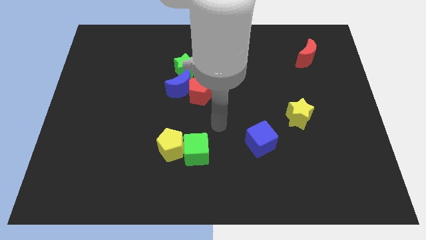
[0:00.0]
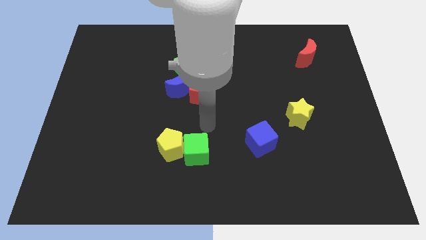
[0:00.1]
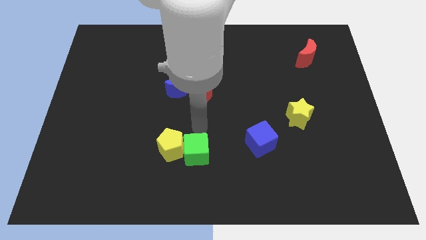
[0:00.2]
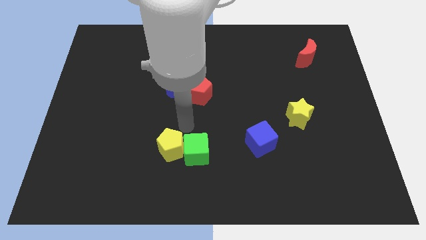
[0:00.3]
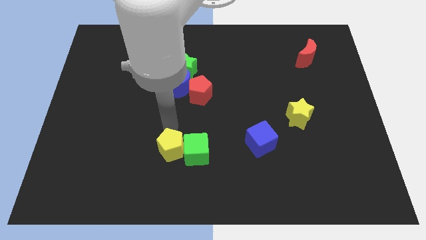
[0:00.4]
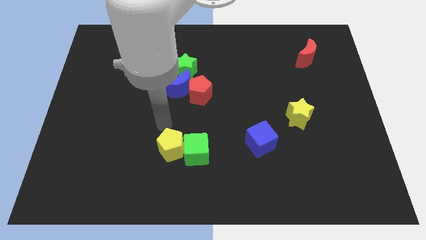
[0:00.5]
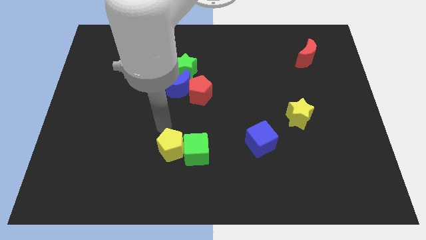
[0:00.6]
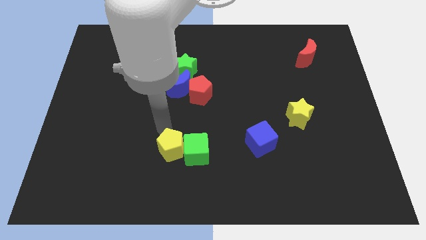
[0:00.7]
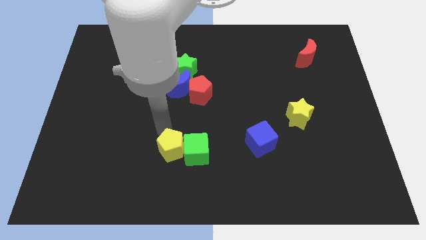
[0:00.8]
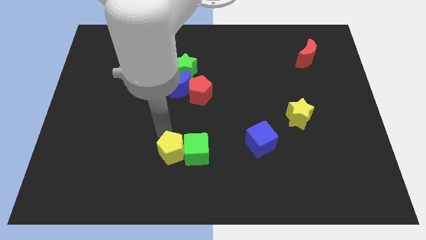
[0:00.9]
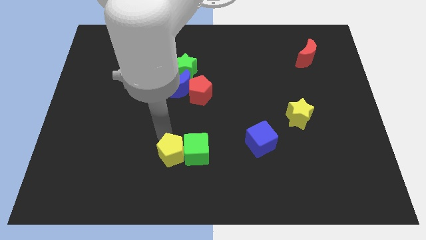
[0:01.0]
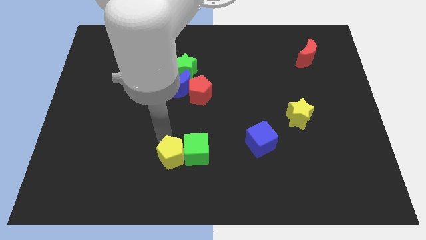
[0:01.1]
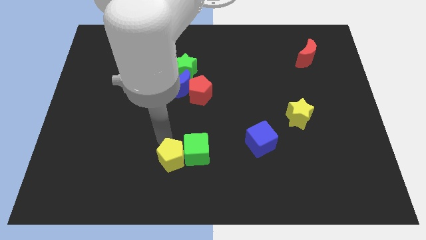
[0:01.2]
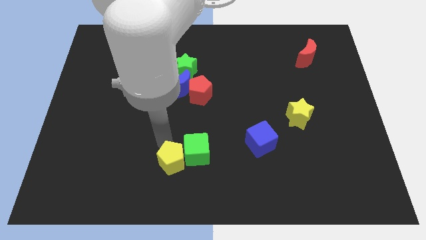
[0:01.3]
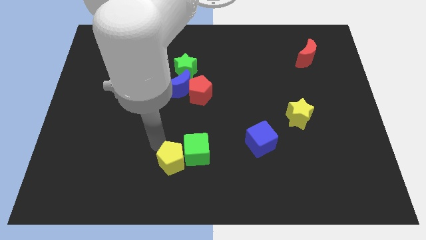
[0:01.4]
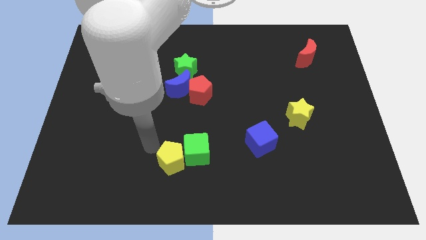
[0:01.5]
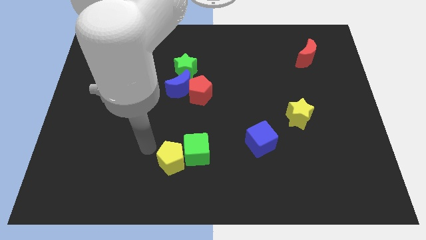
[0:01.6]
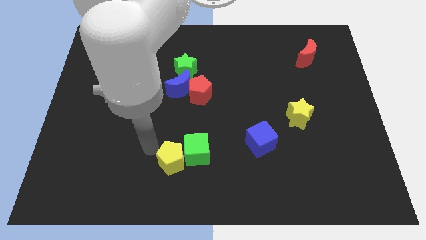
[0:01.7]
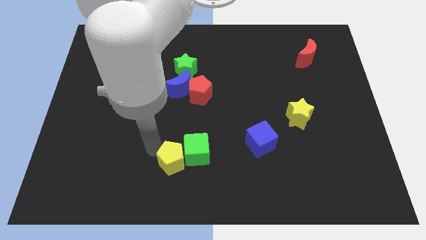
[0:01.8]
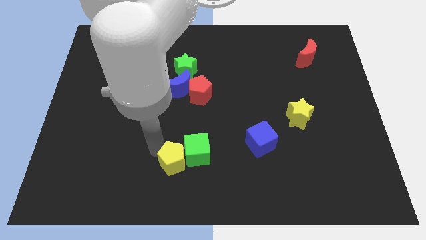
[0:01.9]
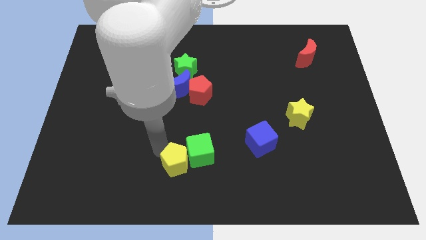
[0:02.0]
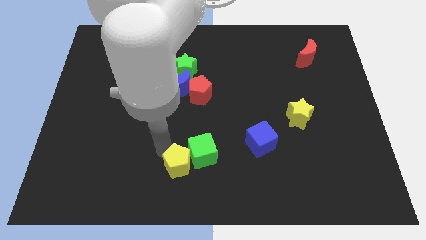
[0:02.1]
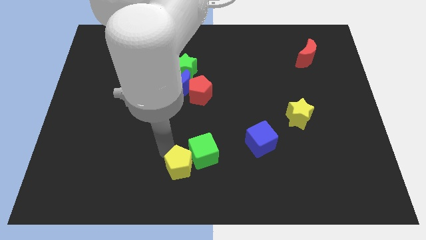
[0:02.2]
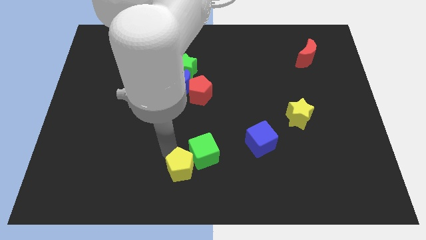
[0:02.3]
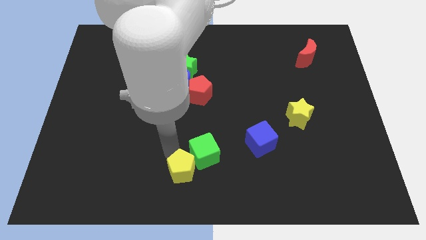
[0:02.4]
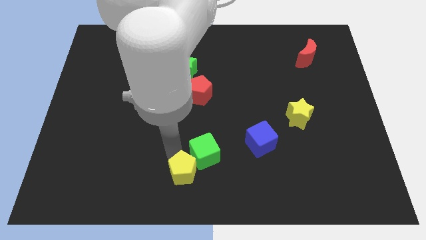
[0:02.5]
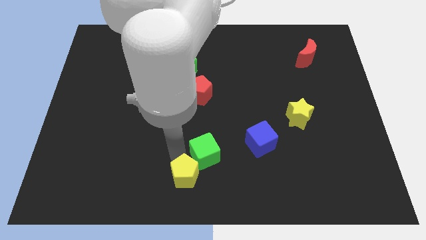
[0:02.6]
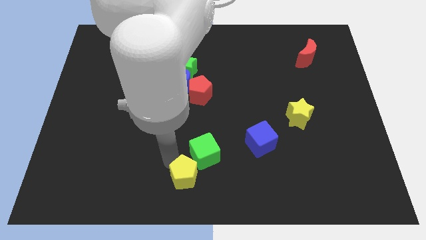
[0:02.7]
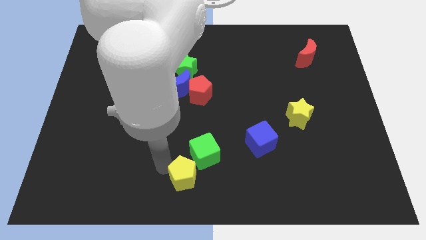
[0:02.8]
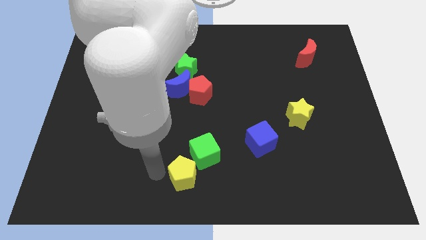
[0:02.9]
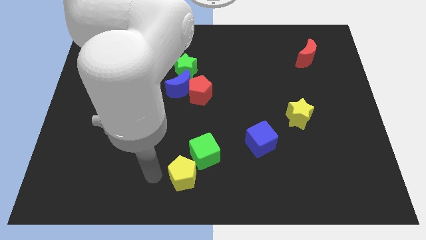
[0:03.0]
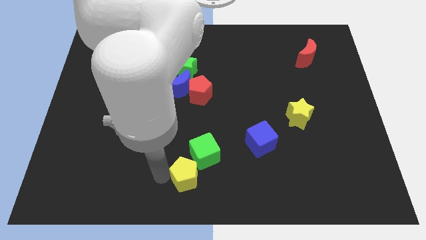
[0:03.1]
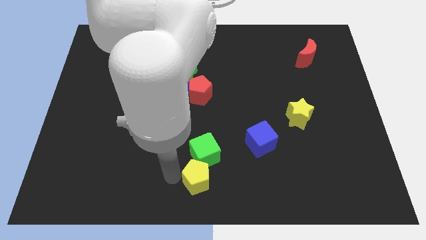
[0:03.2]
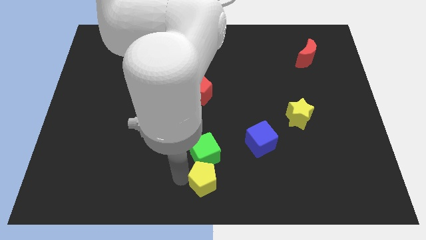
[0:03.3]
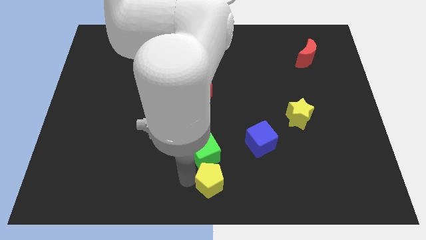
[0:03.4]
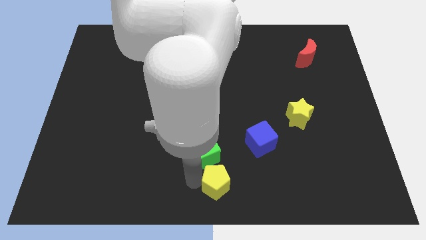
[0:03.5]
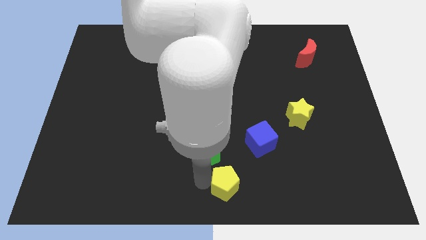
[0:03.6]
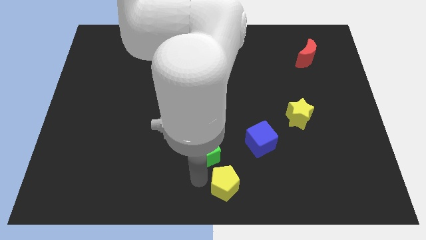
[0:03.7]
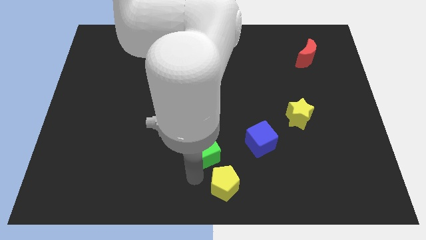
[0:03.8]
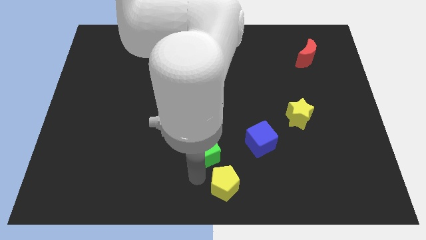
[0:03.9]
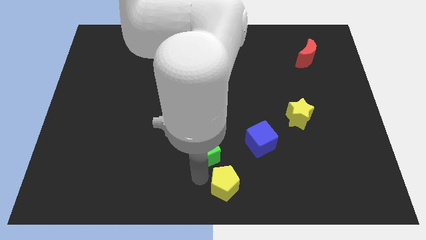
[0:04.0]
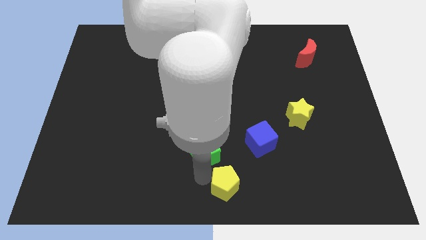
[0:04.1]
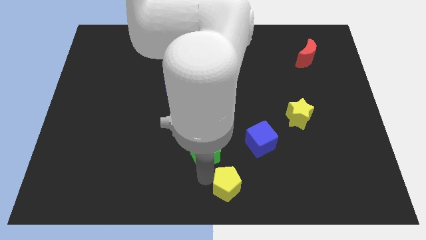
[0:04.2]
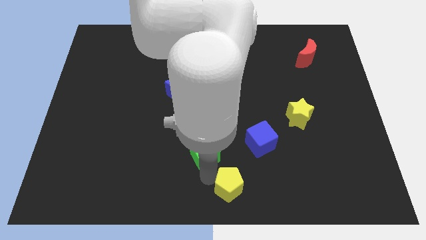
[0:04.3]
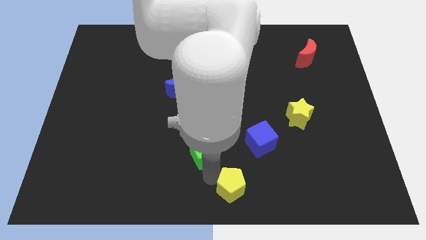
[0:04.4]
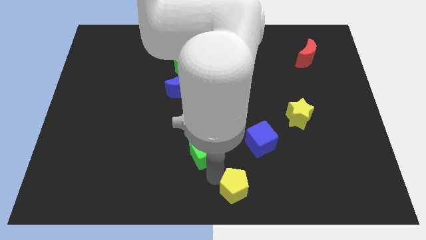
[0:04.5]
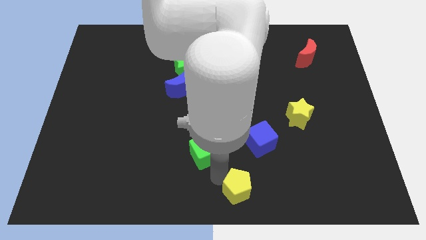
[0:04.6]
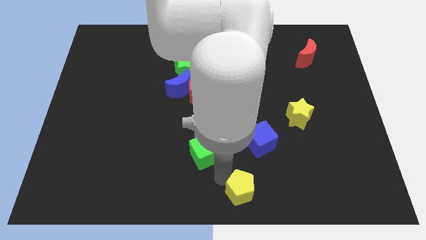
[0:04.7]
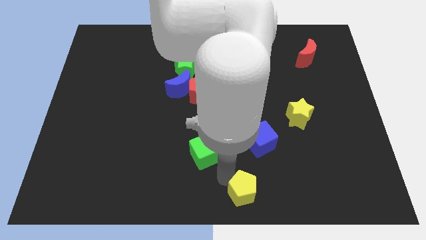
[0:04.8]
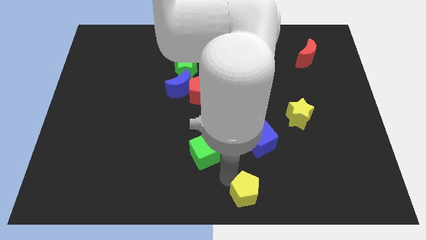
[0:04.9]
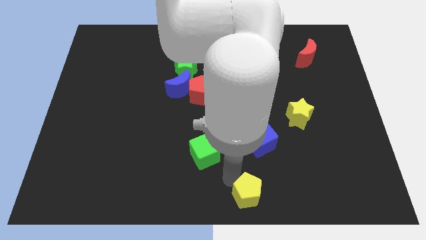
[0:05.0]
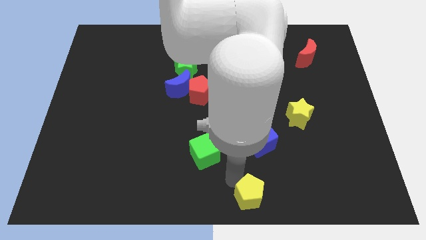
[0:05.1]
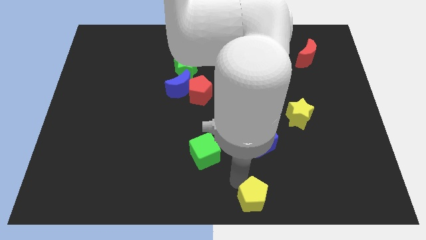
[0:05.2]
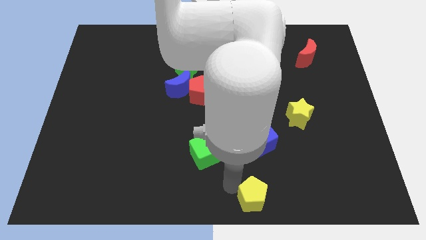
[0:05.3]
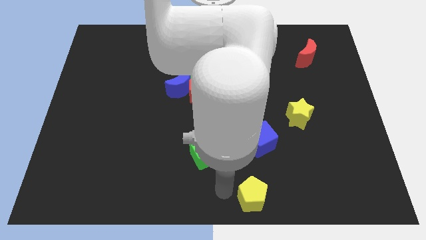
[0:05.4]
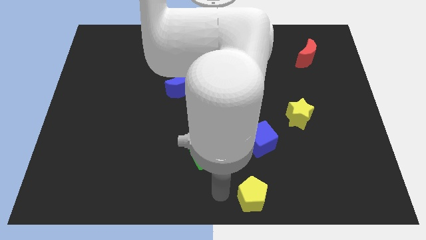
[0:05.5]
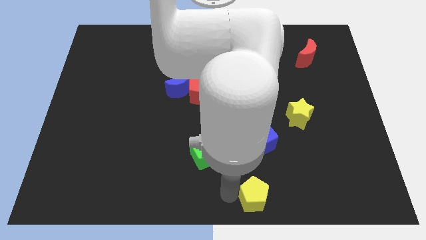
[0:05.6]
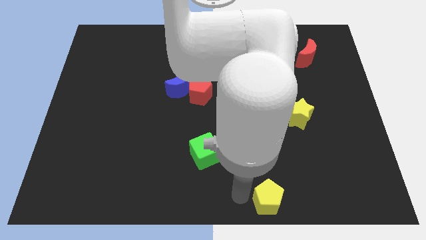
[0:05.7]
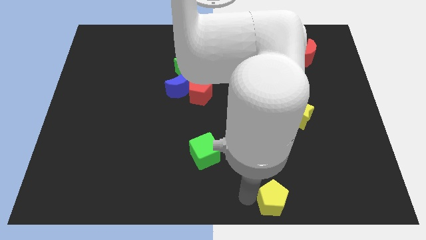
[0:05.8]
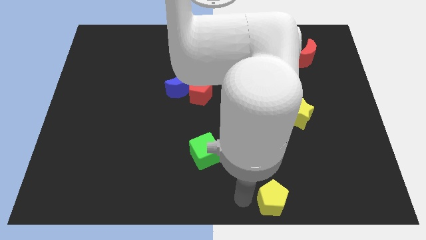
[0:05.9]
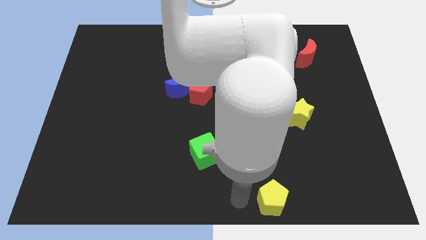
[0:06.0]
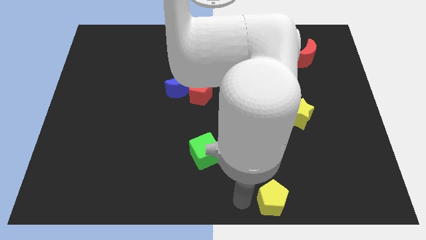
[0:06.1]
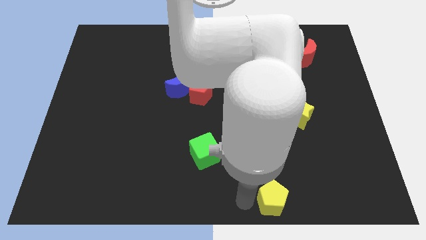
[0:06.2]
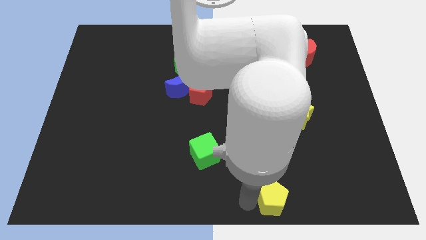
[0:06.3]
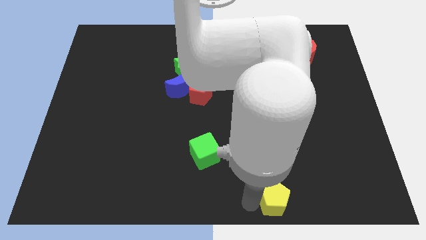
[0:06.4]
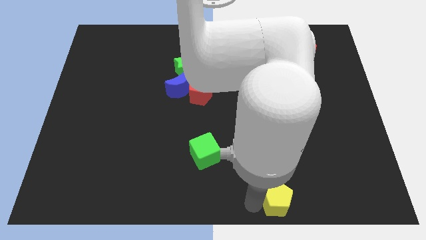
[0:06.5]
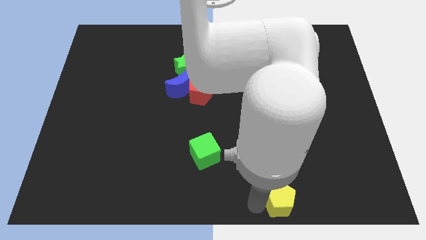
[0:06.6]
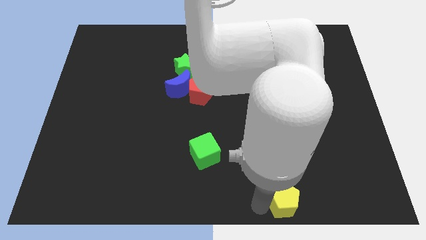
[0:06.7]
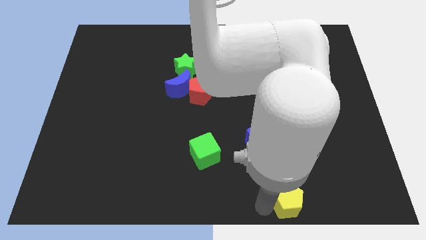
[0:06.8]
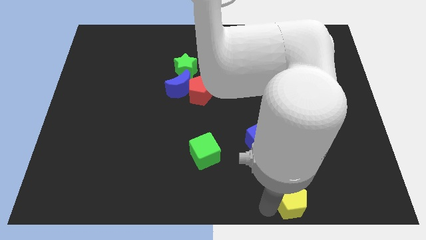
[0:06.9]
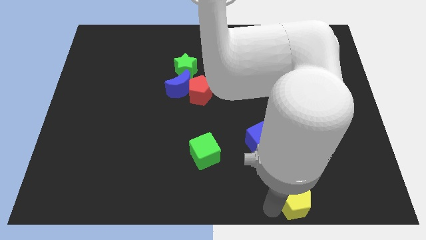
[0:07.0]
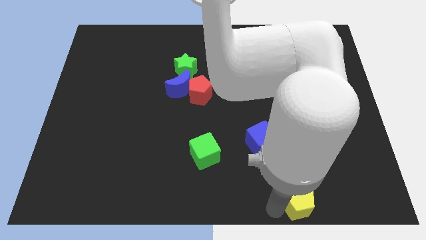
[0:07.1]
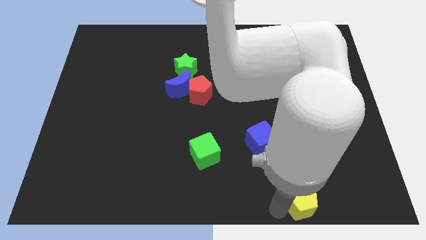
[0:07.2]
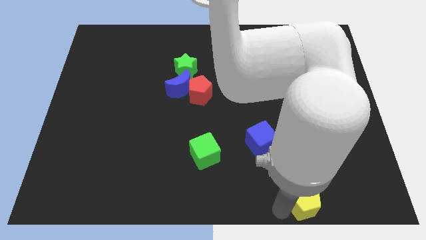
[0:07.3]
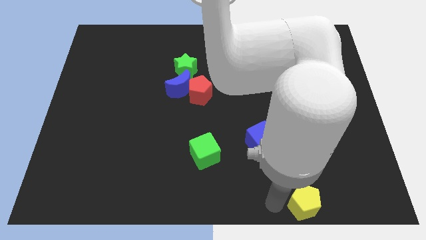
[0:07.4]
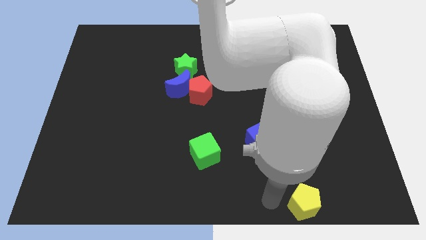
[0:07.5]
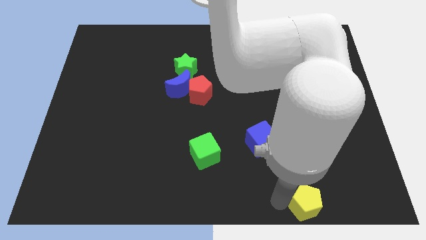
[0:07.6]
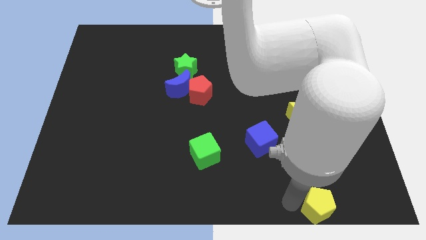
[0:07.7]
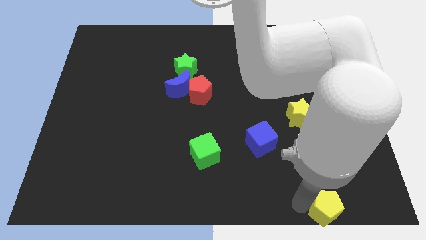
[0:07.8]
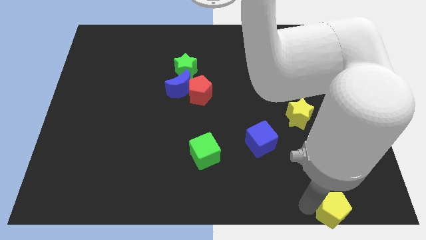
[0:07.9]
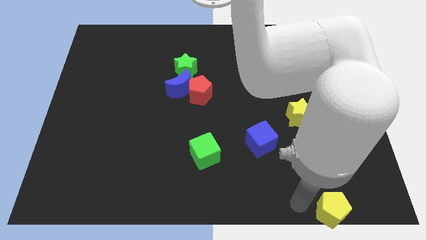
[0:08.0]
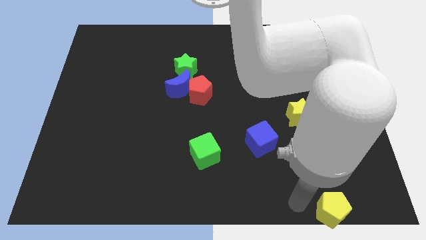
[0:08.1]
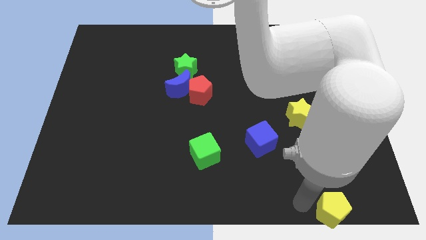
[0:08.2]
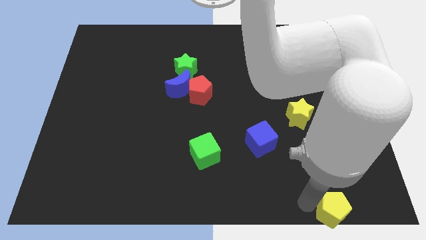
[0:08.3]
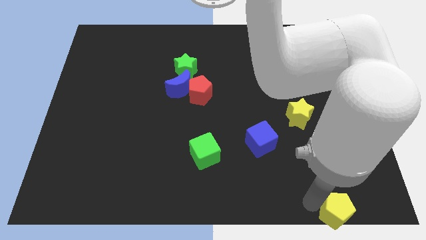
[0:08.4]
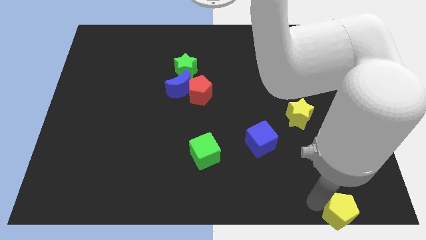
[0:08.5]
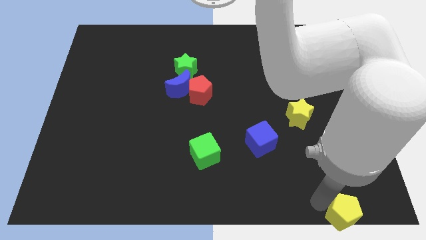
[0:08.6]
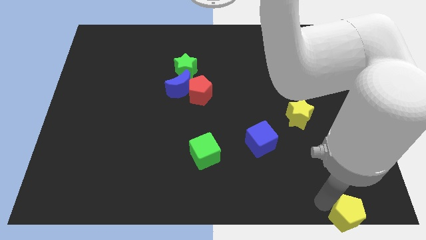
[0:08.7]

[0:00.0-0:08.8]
slide the yellow pentagon to the bottom right
